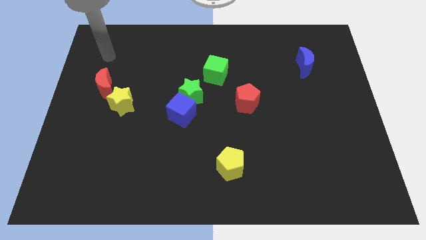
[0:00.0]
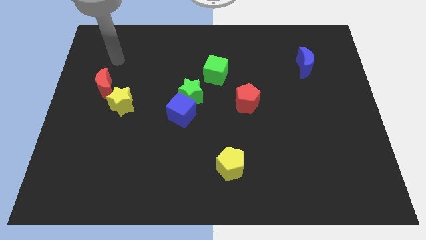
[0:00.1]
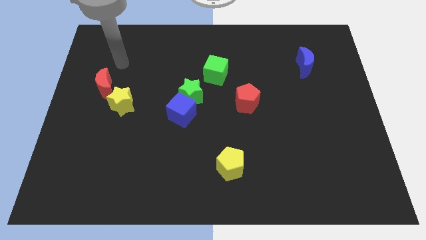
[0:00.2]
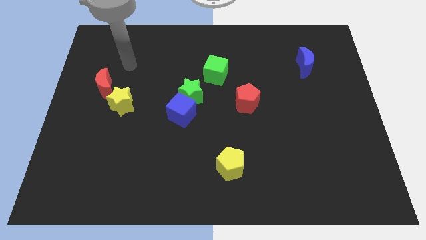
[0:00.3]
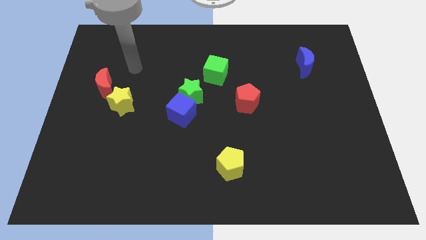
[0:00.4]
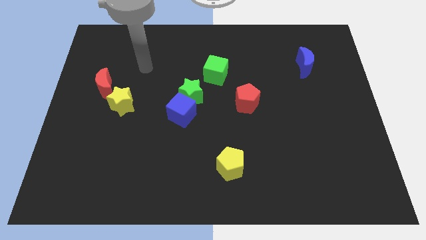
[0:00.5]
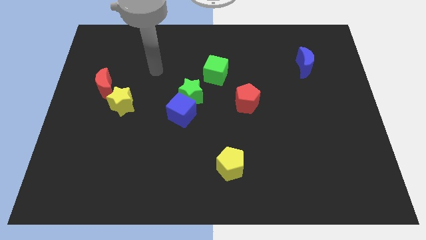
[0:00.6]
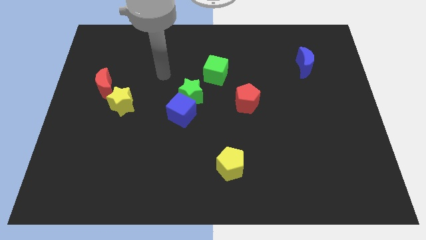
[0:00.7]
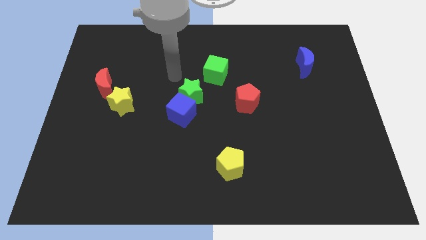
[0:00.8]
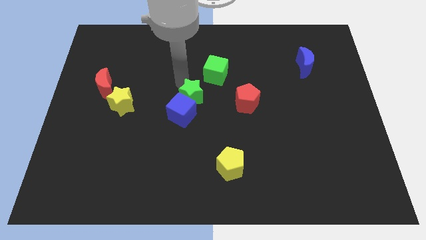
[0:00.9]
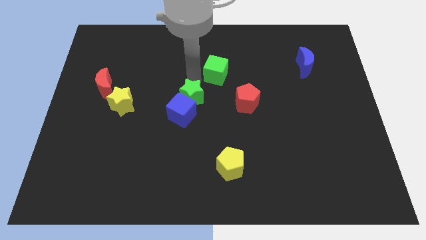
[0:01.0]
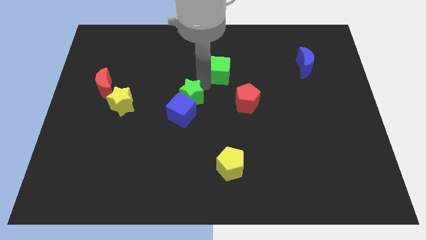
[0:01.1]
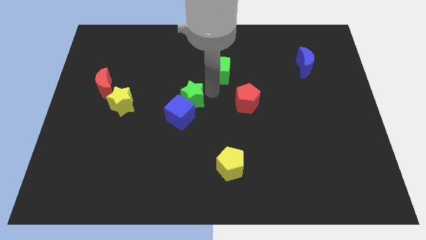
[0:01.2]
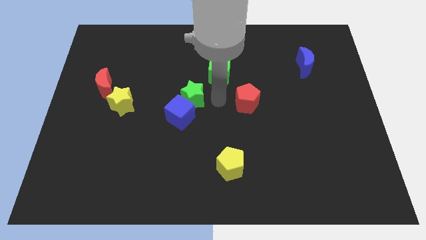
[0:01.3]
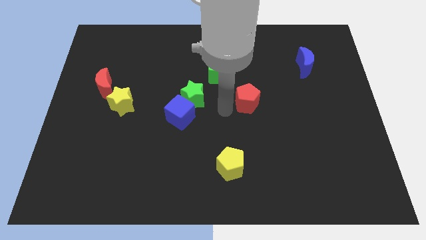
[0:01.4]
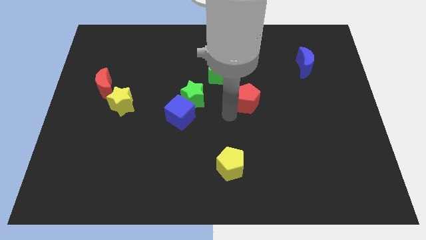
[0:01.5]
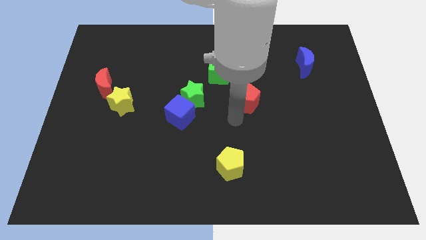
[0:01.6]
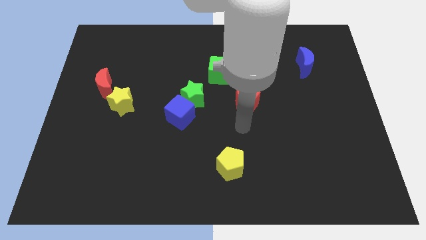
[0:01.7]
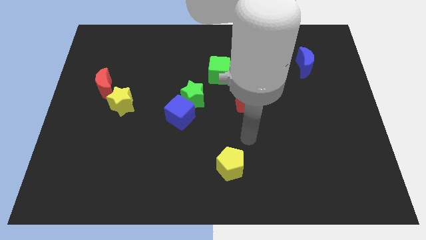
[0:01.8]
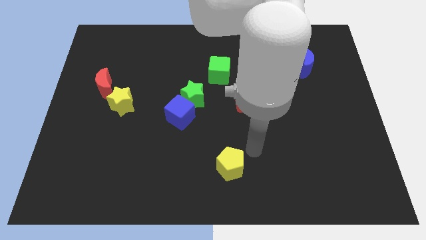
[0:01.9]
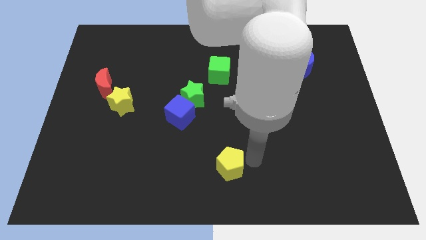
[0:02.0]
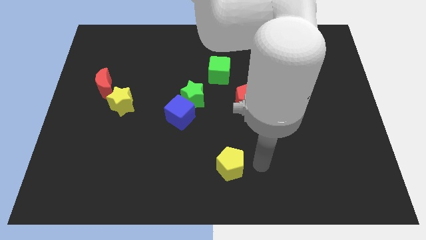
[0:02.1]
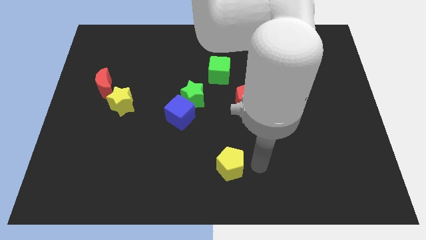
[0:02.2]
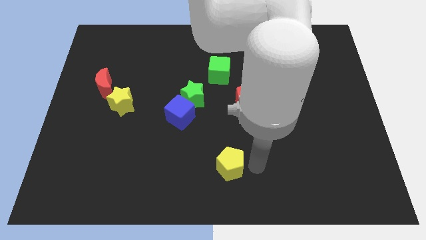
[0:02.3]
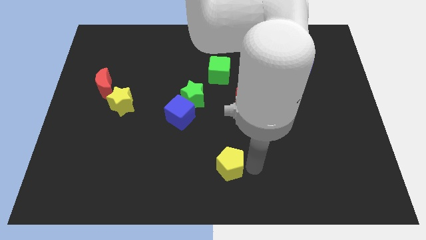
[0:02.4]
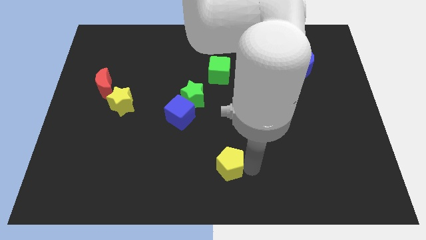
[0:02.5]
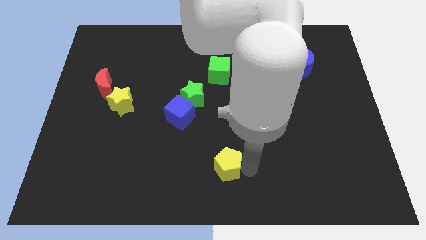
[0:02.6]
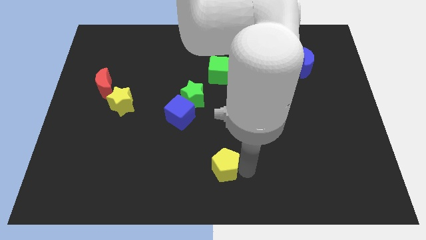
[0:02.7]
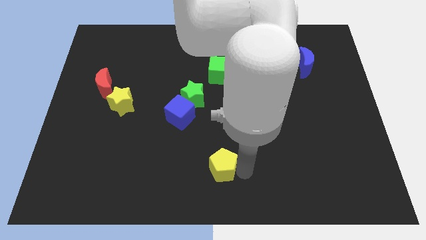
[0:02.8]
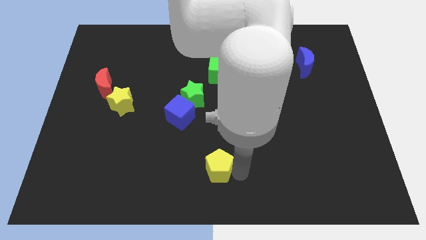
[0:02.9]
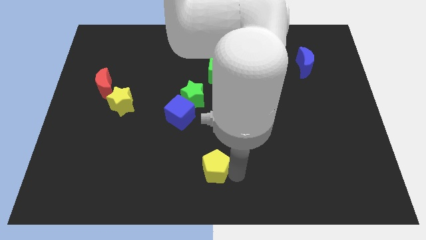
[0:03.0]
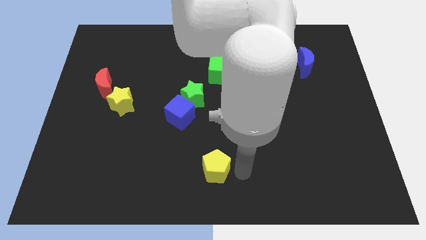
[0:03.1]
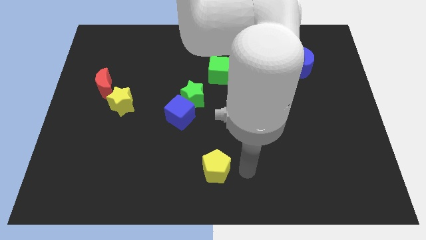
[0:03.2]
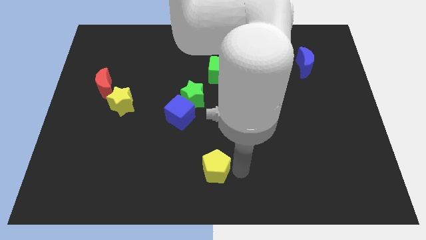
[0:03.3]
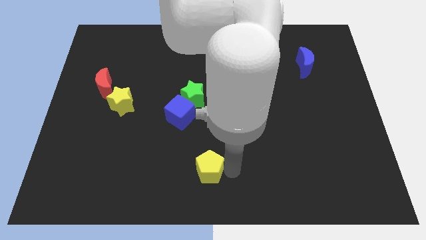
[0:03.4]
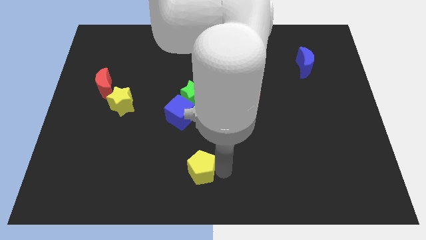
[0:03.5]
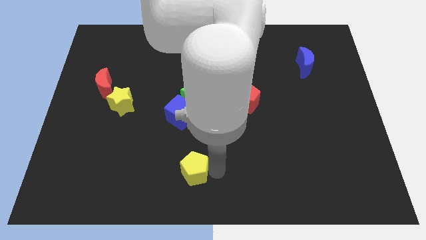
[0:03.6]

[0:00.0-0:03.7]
slide the yellow pentagon somewhat to the left

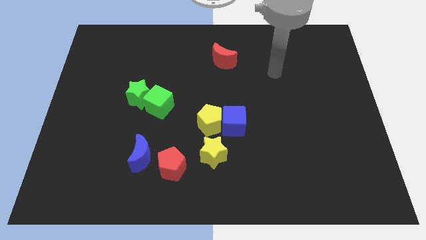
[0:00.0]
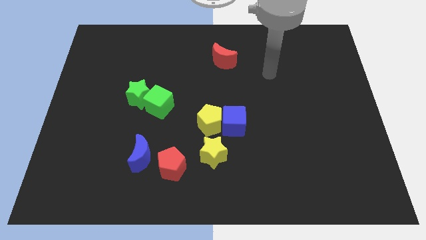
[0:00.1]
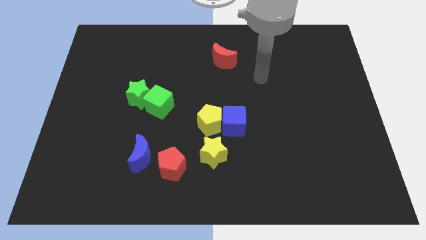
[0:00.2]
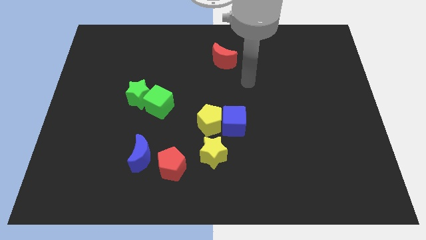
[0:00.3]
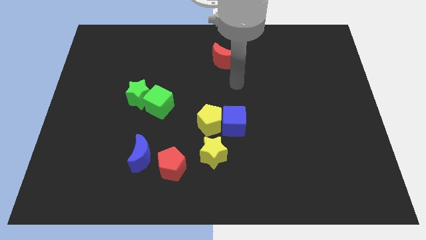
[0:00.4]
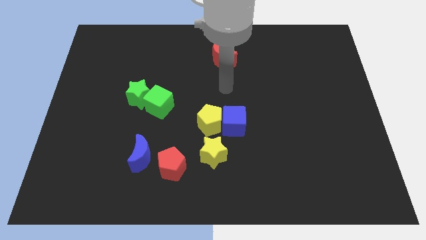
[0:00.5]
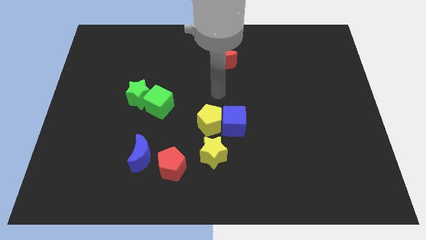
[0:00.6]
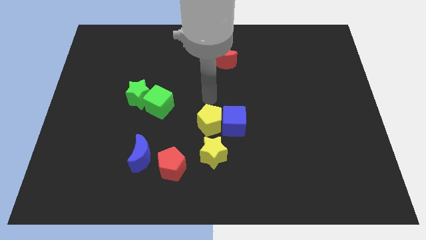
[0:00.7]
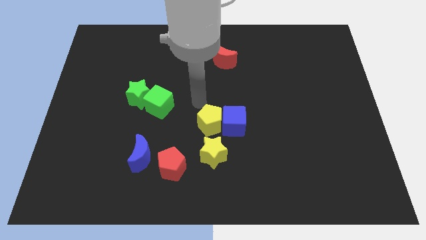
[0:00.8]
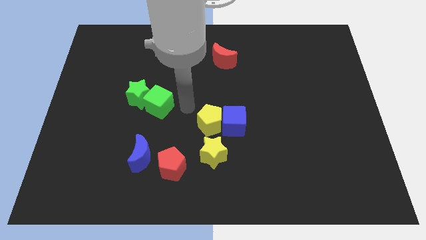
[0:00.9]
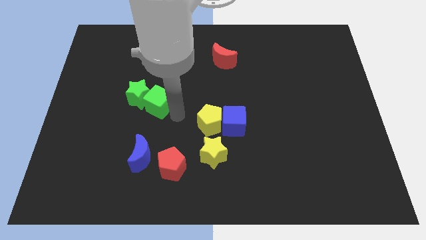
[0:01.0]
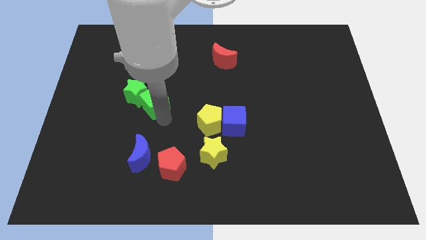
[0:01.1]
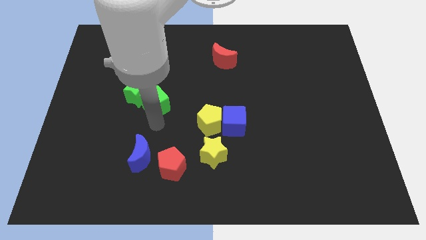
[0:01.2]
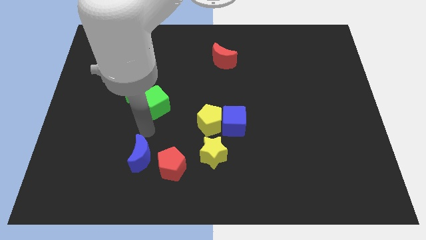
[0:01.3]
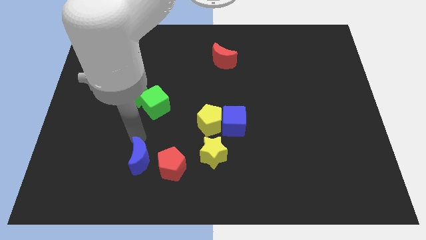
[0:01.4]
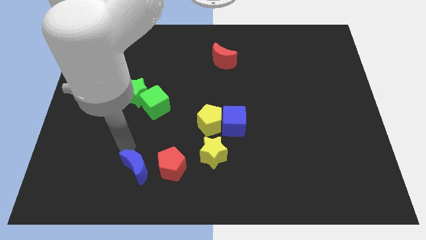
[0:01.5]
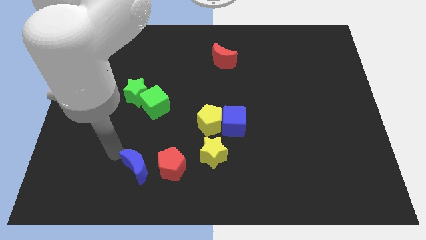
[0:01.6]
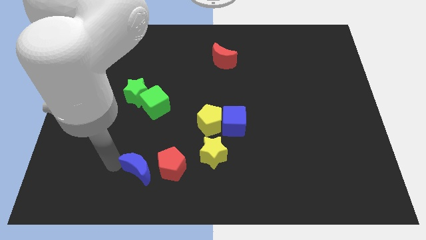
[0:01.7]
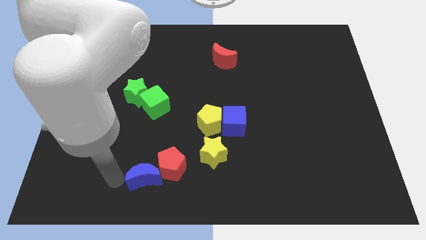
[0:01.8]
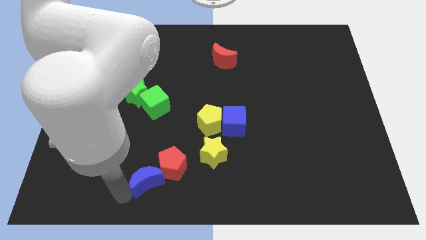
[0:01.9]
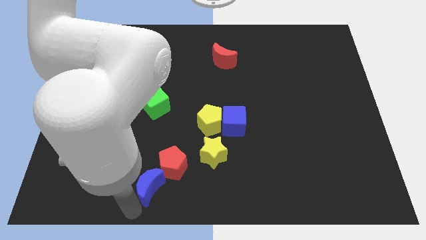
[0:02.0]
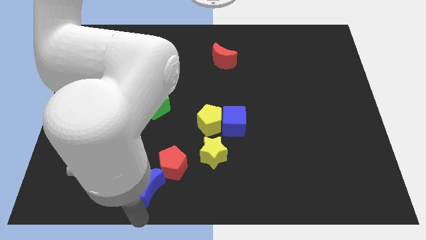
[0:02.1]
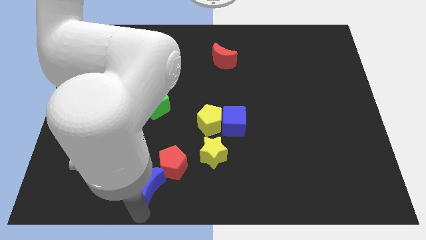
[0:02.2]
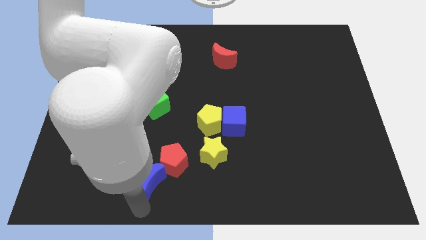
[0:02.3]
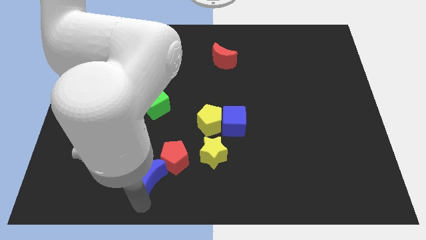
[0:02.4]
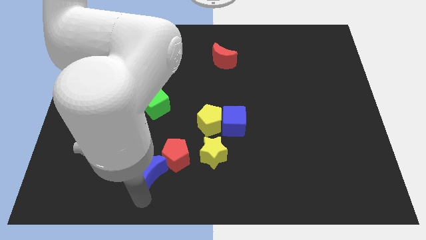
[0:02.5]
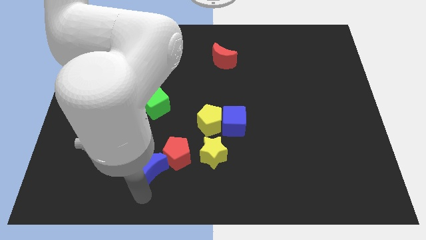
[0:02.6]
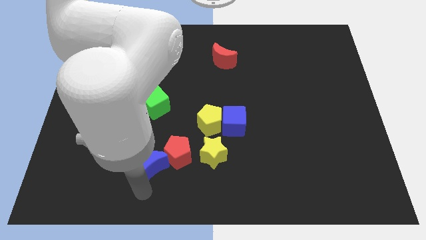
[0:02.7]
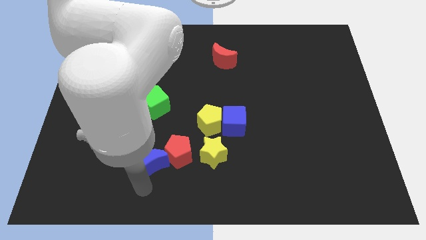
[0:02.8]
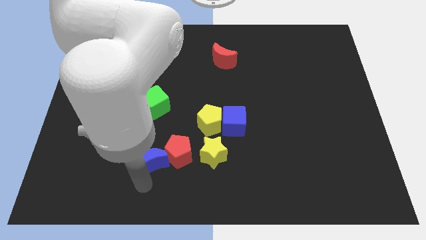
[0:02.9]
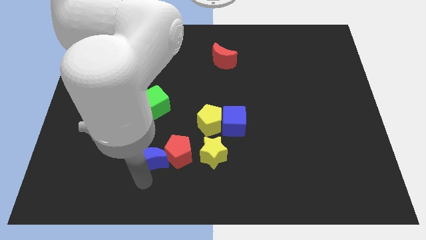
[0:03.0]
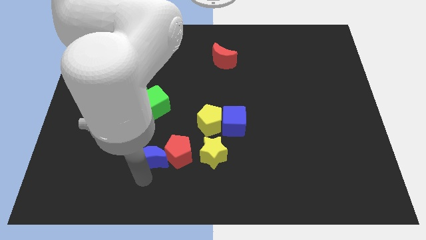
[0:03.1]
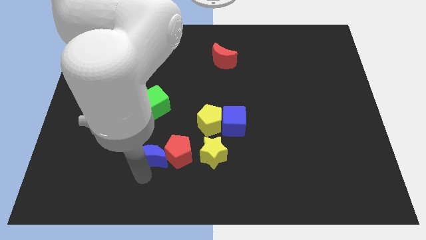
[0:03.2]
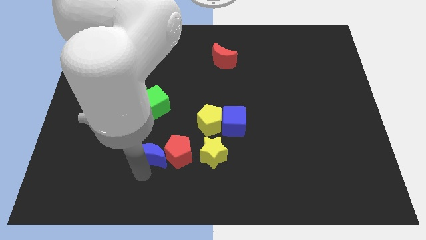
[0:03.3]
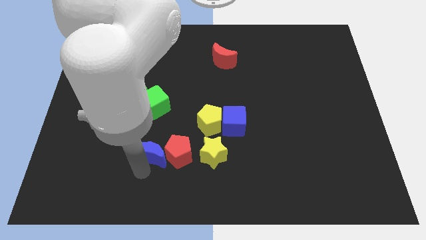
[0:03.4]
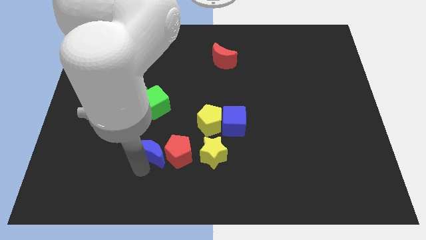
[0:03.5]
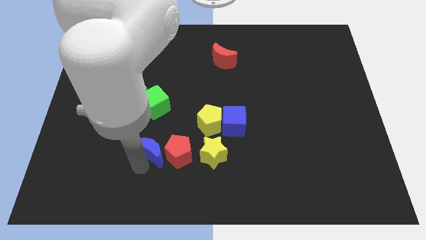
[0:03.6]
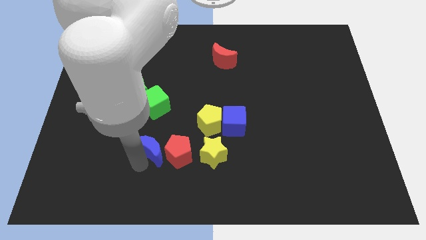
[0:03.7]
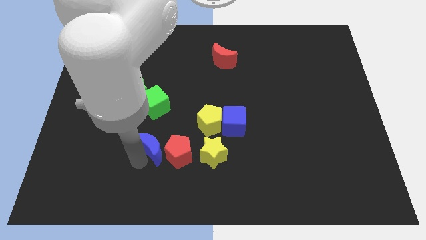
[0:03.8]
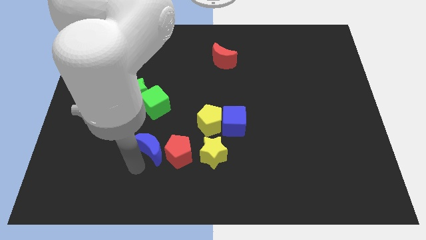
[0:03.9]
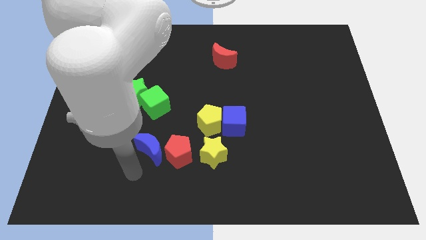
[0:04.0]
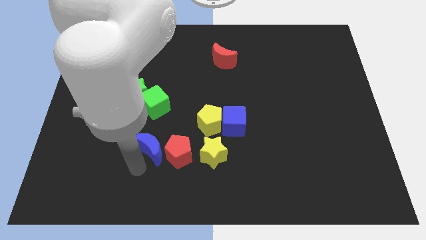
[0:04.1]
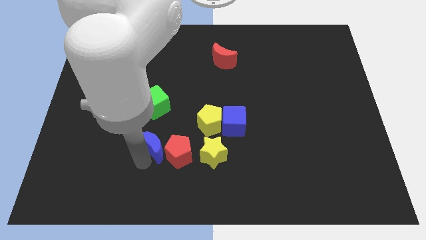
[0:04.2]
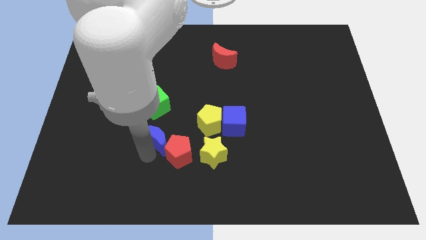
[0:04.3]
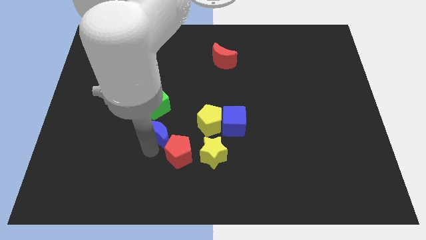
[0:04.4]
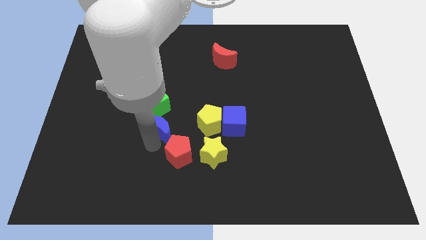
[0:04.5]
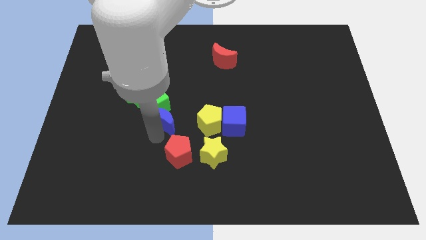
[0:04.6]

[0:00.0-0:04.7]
slightly push the blue moon up
